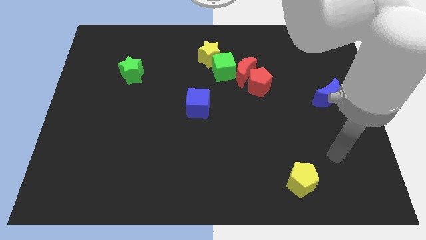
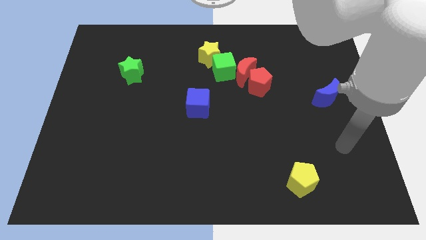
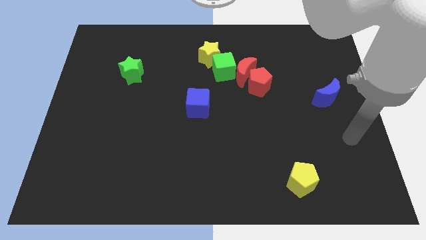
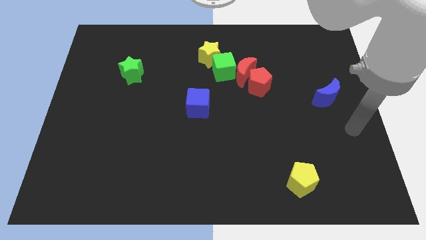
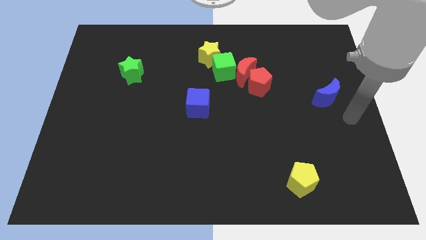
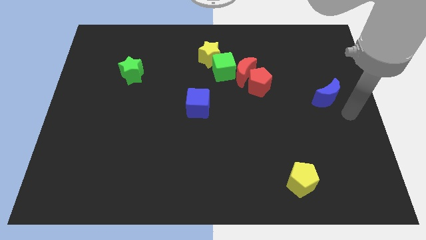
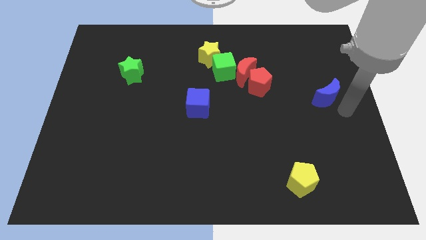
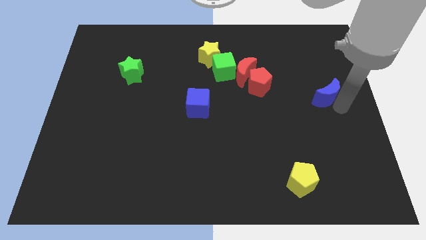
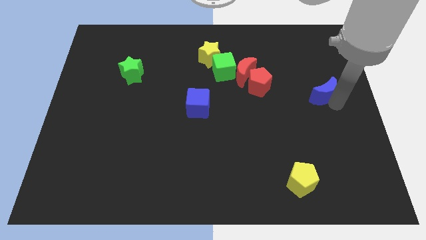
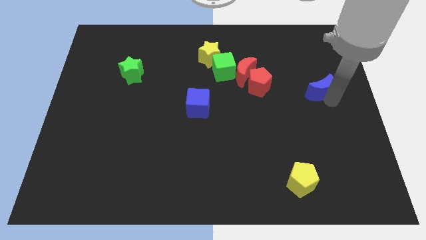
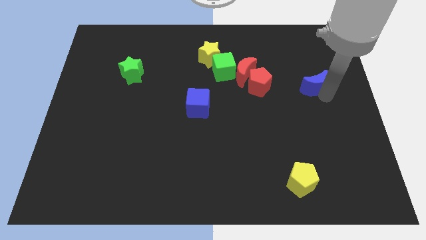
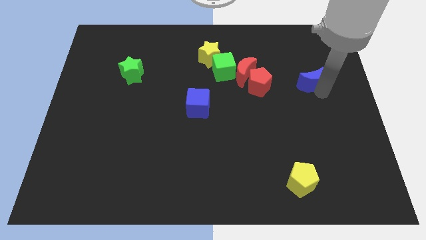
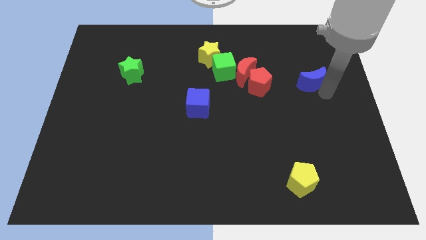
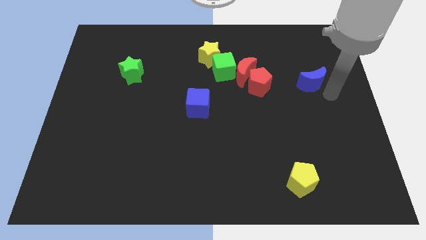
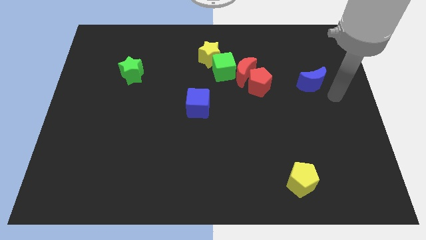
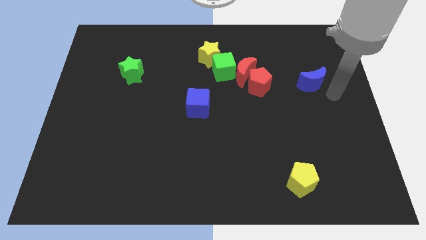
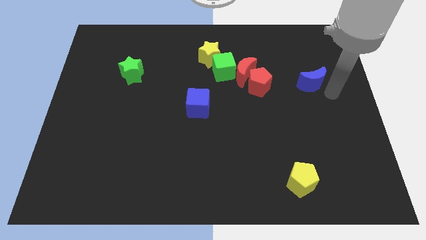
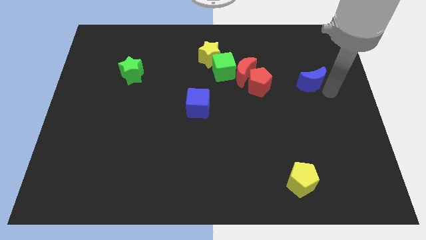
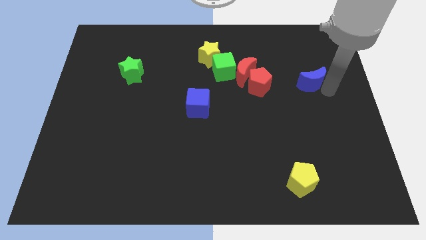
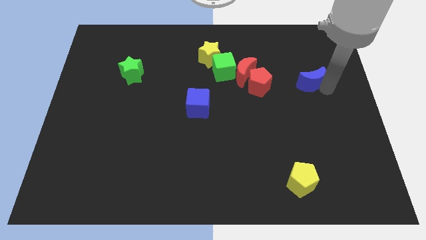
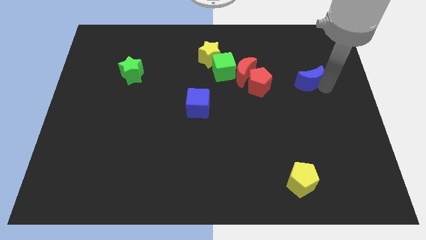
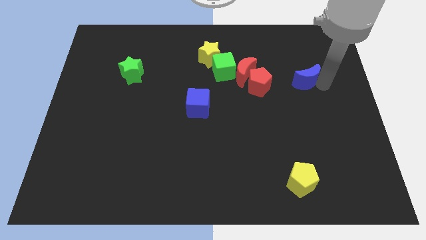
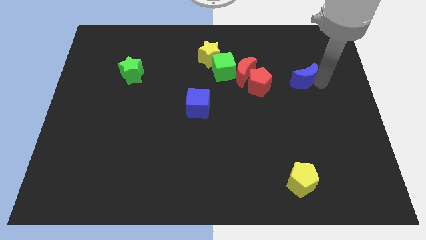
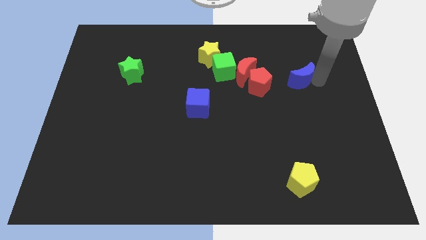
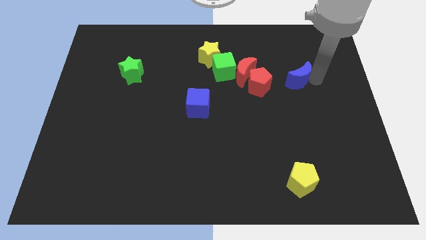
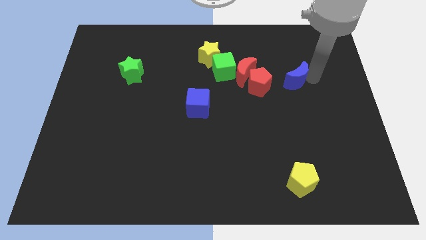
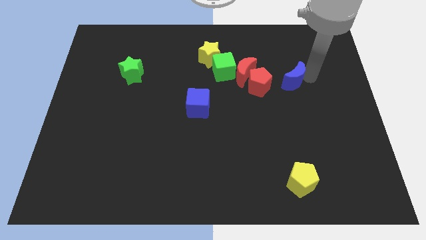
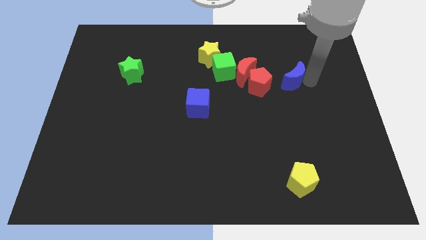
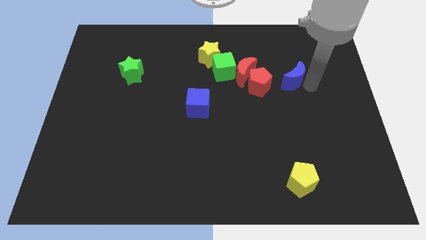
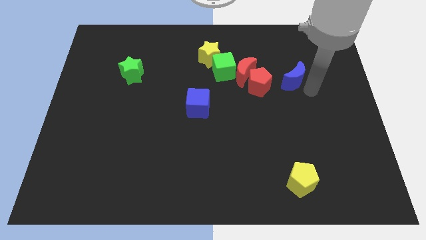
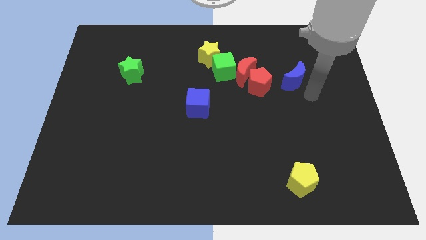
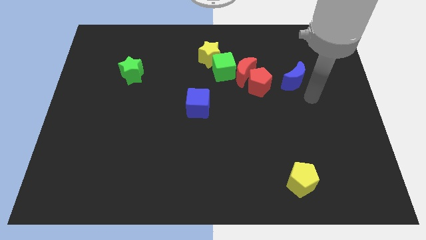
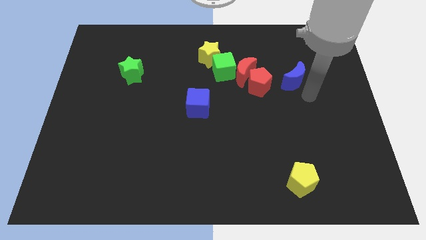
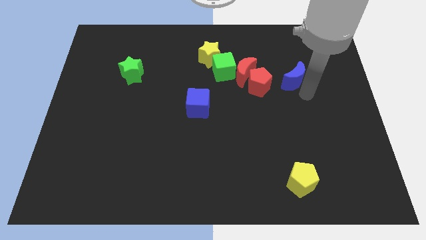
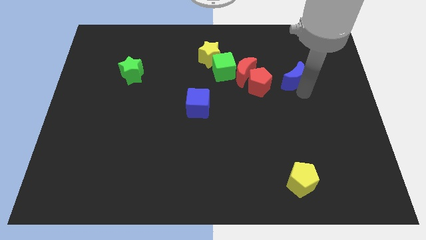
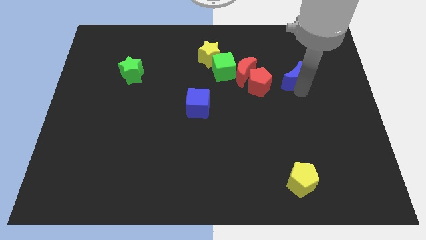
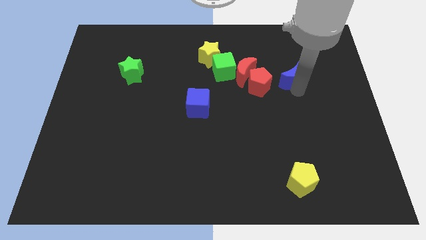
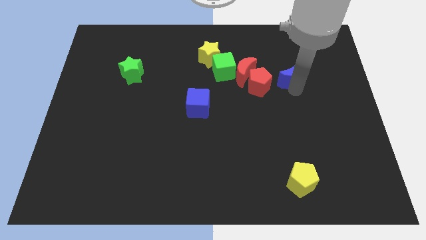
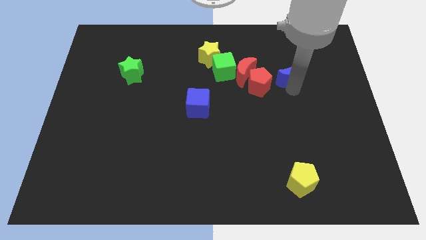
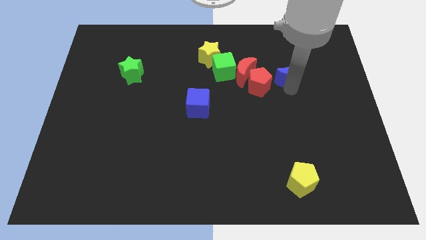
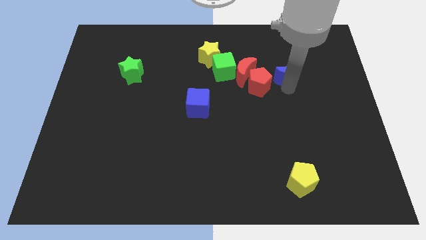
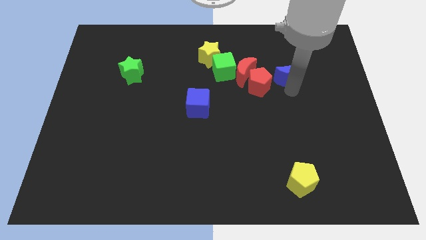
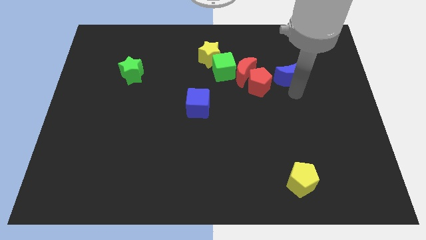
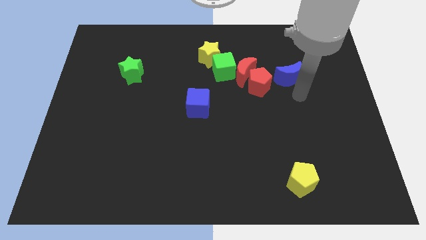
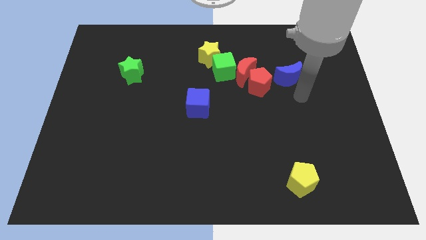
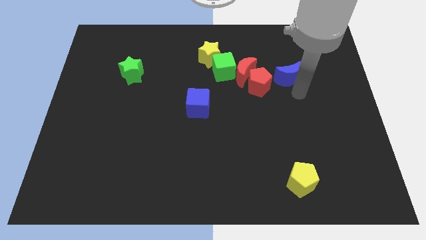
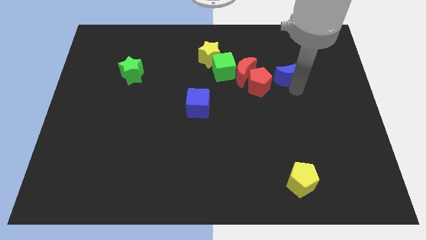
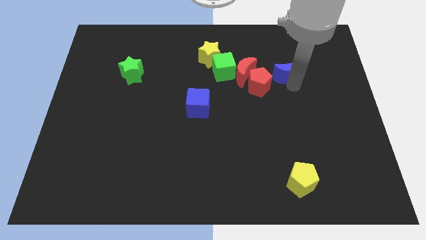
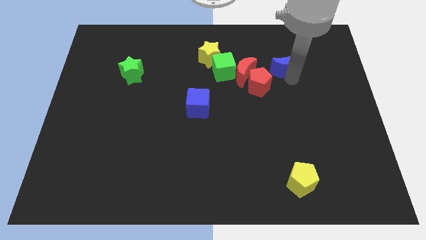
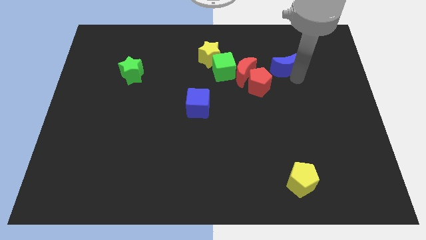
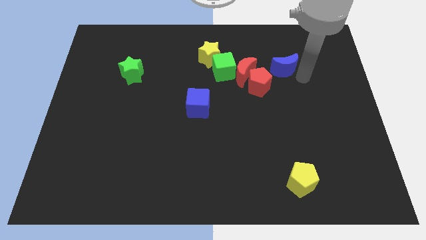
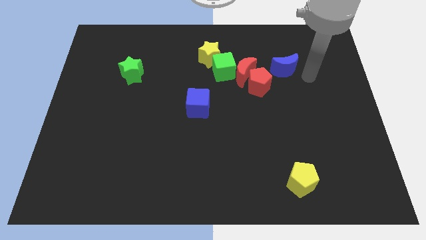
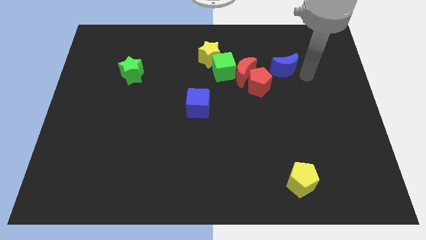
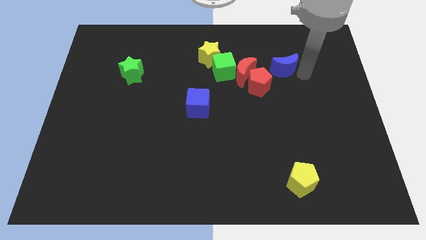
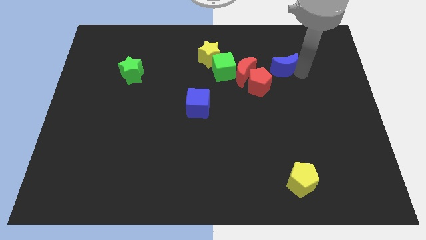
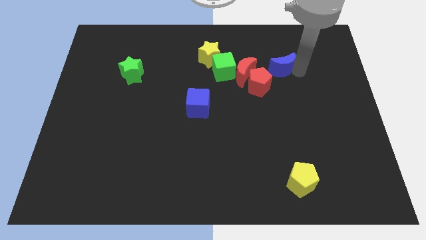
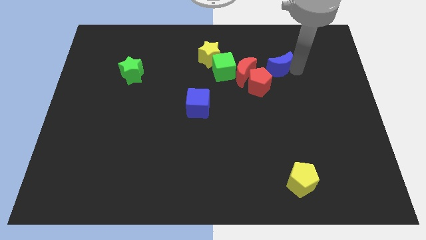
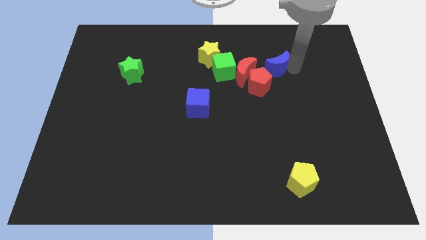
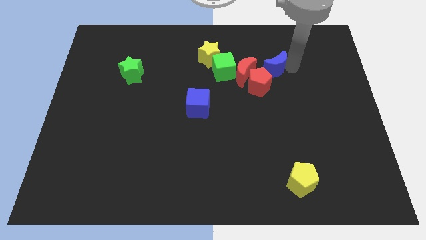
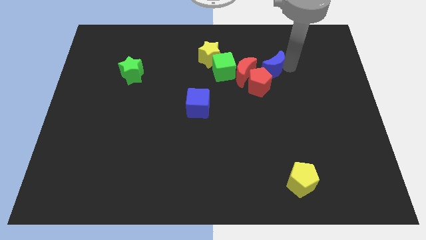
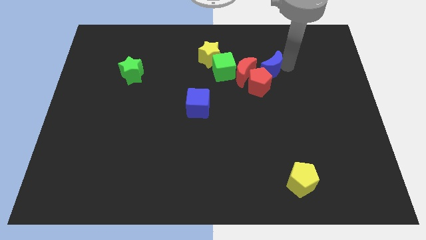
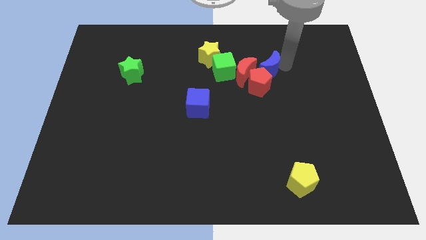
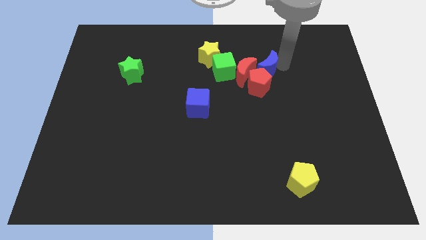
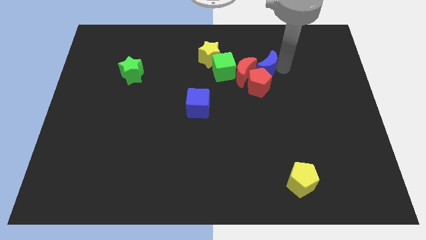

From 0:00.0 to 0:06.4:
move the blue moon towards the red moon
